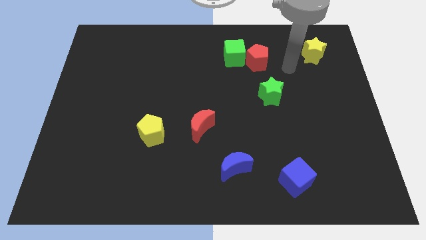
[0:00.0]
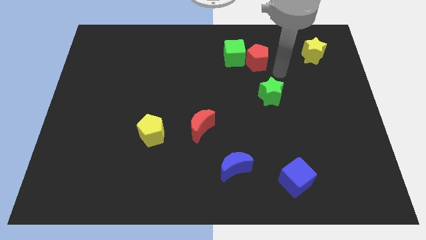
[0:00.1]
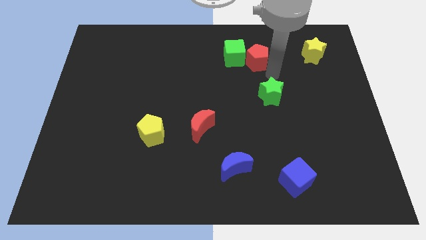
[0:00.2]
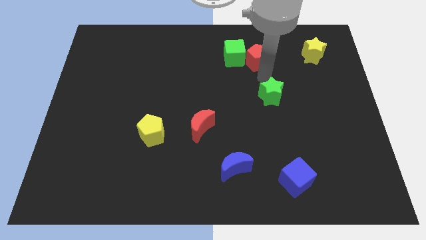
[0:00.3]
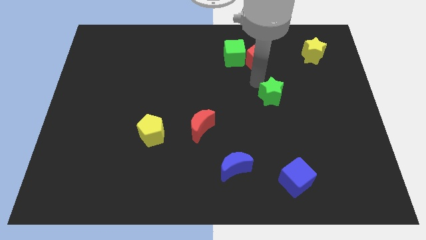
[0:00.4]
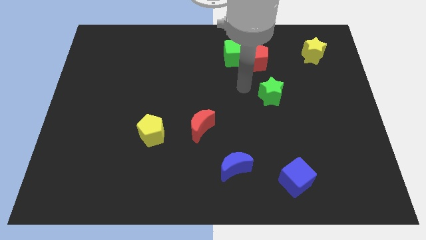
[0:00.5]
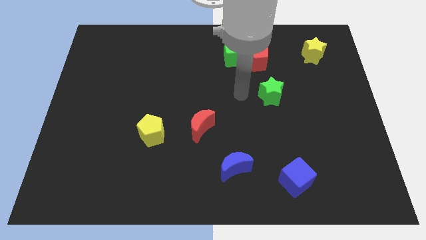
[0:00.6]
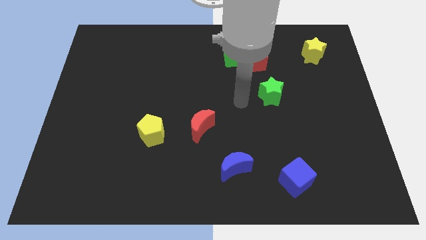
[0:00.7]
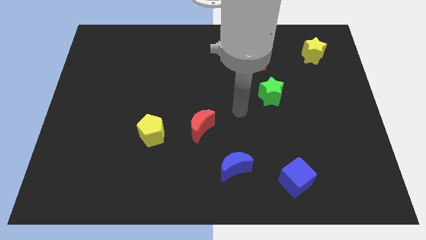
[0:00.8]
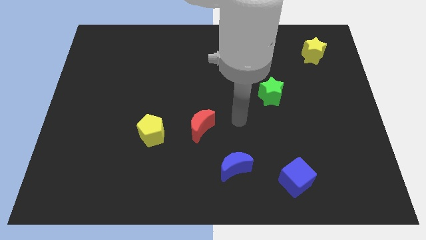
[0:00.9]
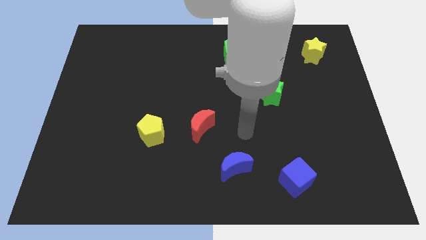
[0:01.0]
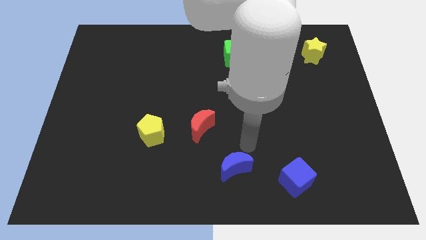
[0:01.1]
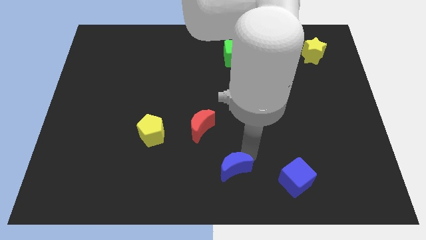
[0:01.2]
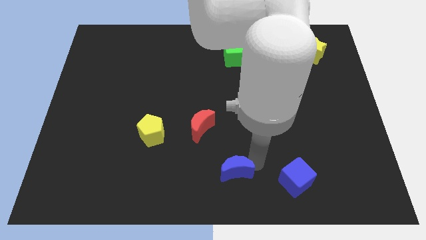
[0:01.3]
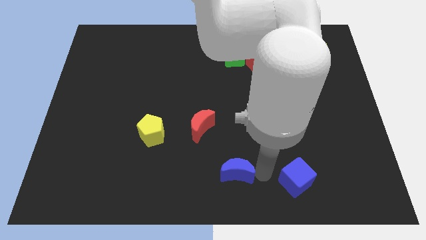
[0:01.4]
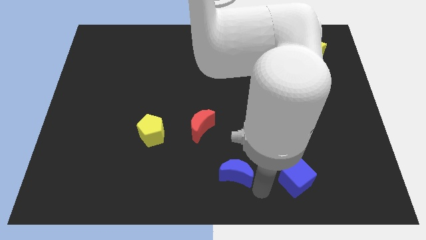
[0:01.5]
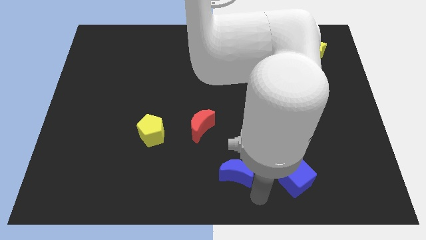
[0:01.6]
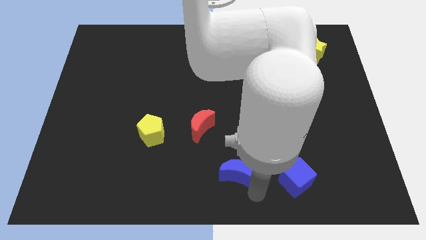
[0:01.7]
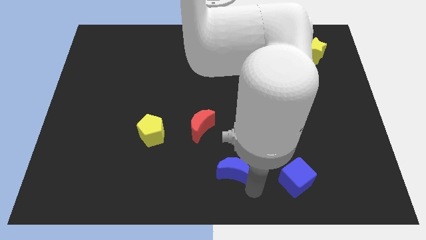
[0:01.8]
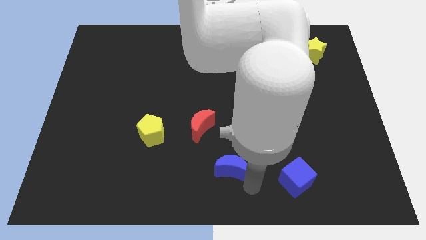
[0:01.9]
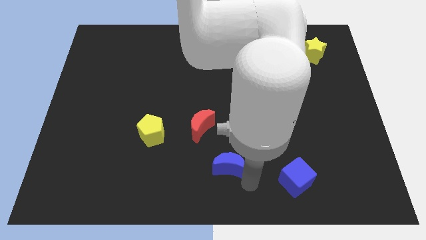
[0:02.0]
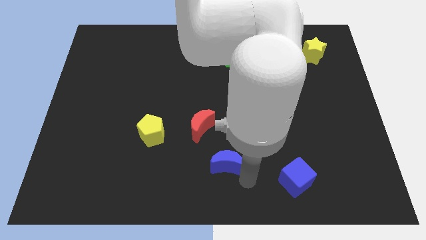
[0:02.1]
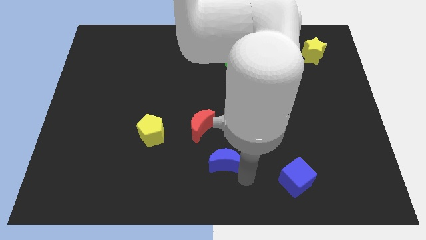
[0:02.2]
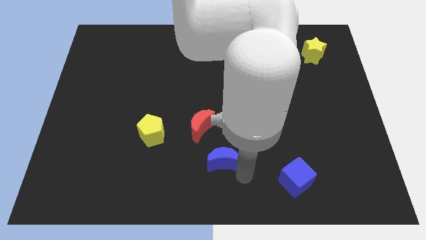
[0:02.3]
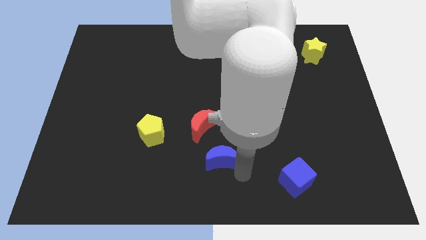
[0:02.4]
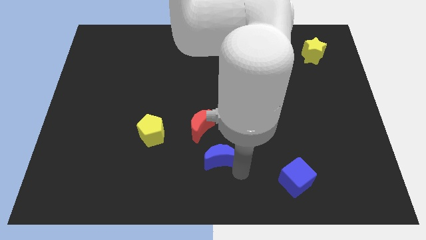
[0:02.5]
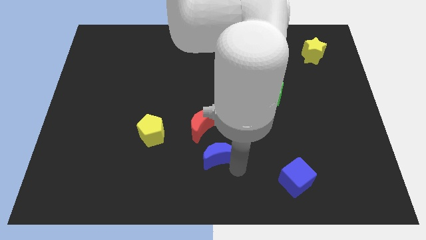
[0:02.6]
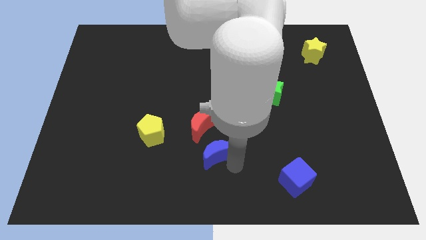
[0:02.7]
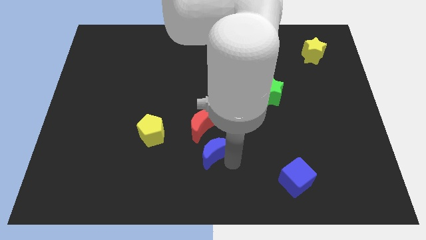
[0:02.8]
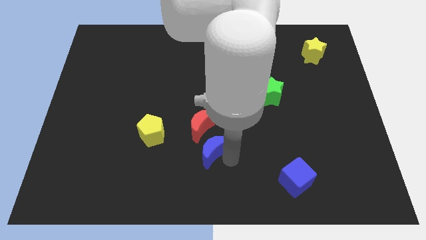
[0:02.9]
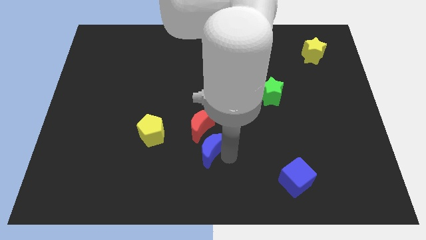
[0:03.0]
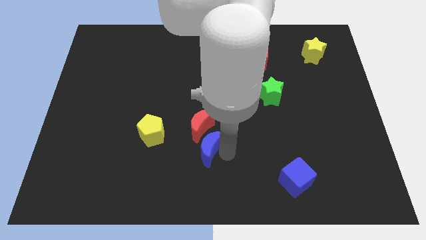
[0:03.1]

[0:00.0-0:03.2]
push the blue moon upwards and left diagonally slightly

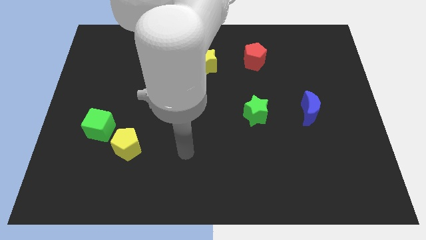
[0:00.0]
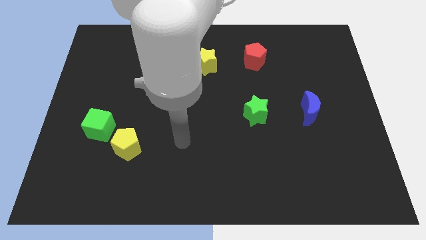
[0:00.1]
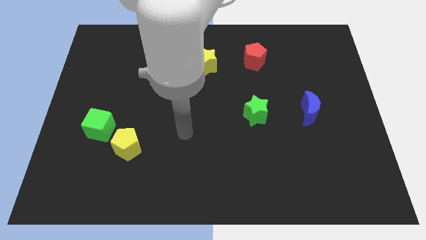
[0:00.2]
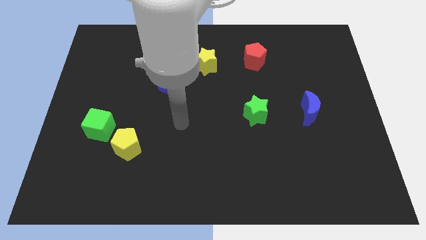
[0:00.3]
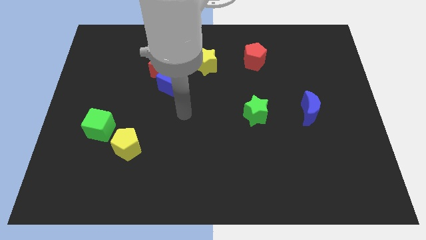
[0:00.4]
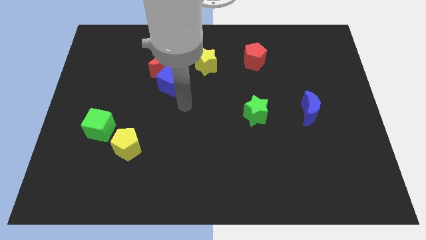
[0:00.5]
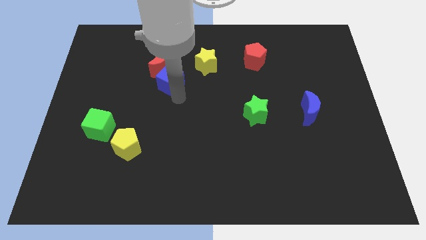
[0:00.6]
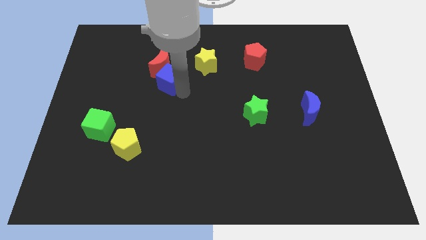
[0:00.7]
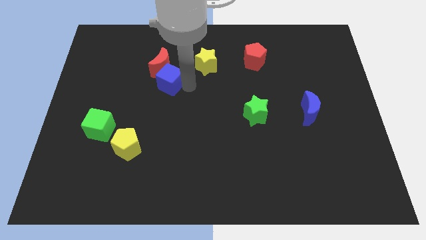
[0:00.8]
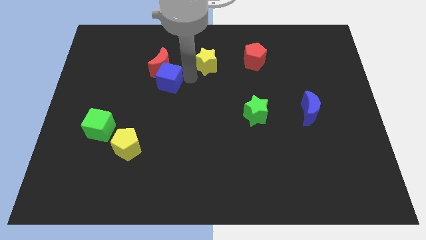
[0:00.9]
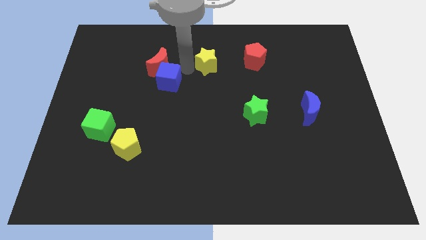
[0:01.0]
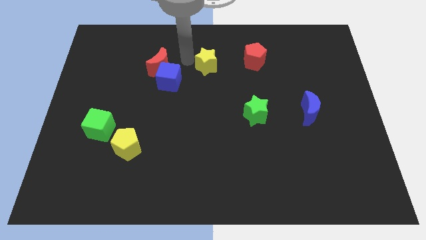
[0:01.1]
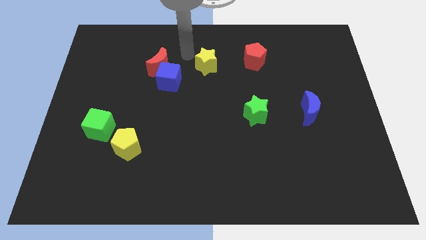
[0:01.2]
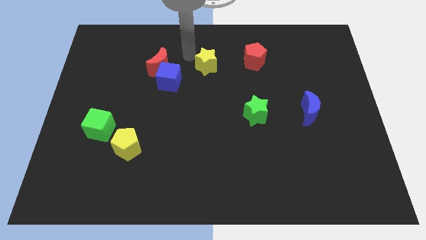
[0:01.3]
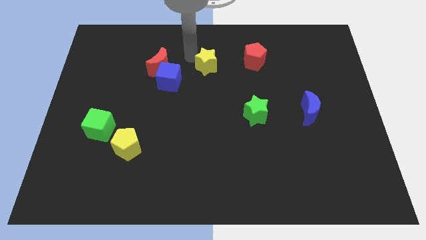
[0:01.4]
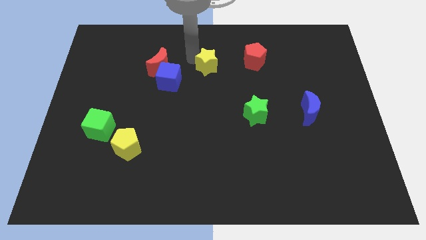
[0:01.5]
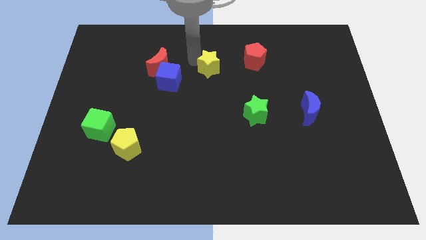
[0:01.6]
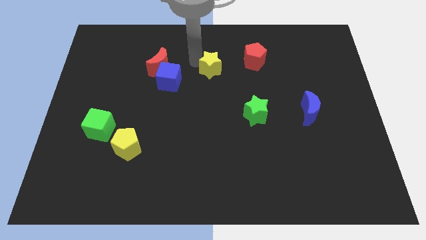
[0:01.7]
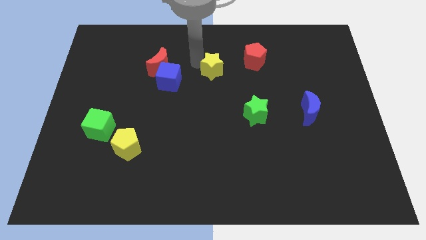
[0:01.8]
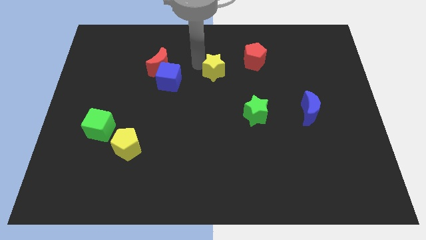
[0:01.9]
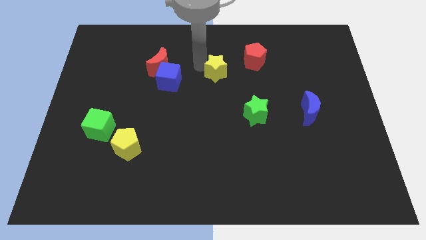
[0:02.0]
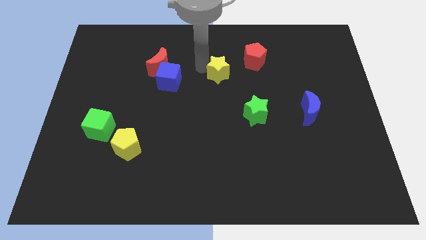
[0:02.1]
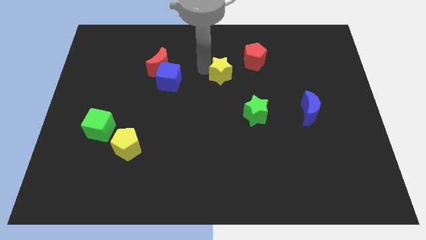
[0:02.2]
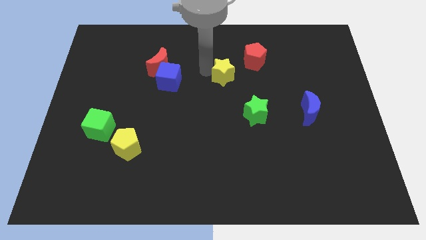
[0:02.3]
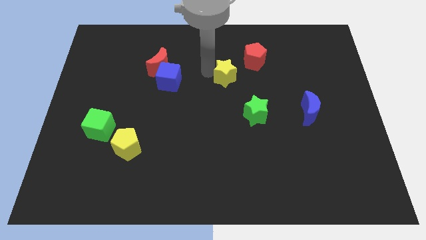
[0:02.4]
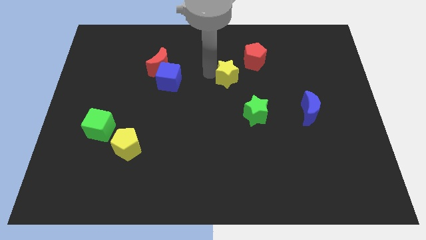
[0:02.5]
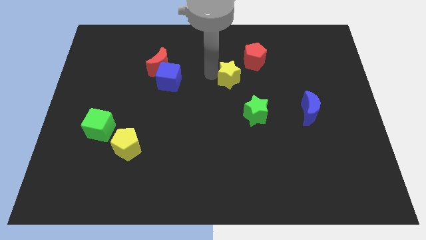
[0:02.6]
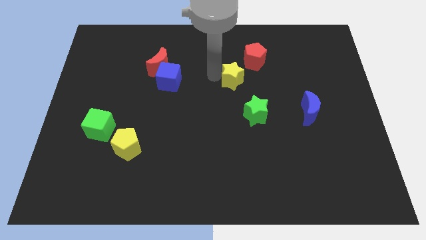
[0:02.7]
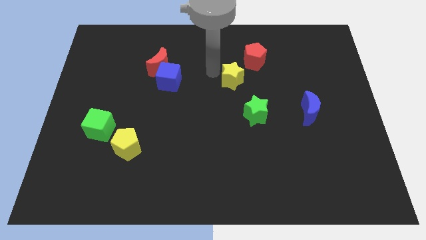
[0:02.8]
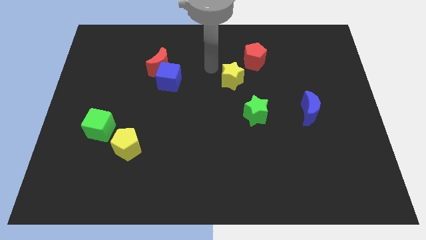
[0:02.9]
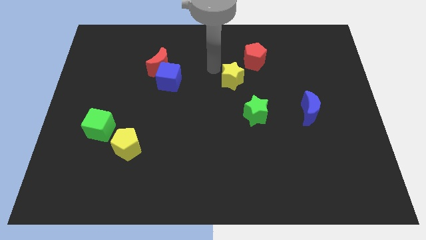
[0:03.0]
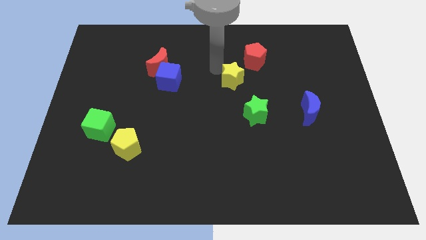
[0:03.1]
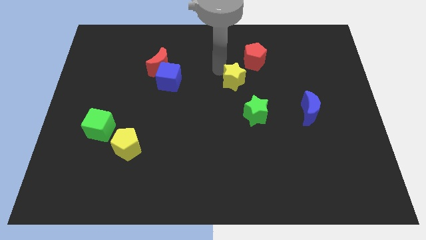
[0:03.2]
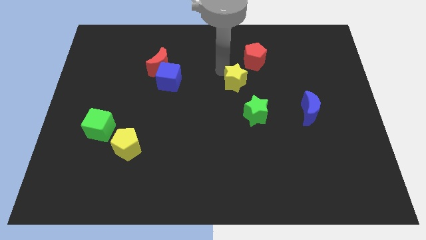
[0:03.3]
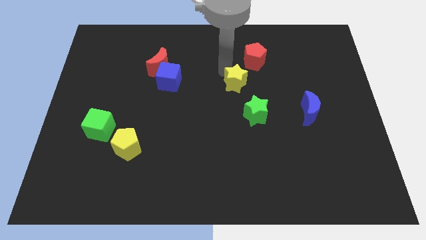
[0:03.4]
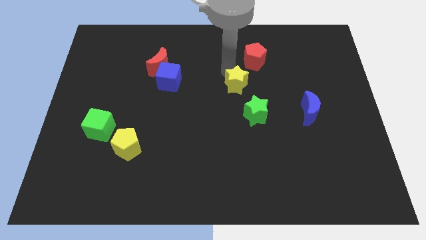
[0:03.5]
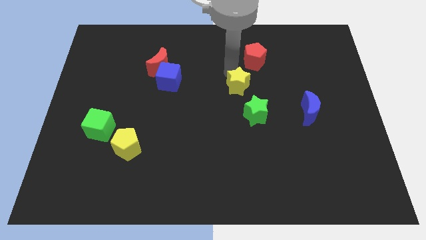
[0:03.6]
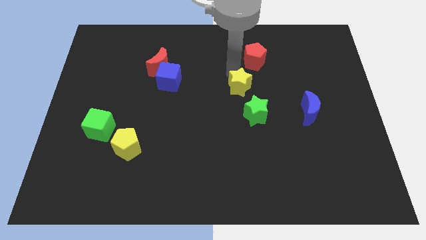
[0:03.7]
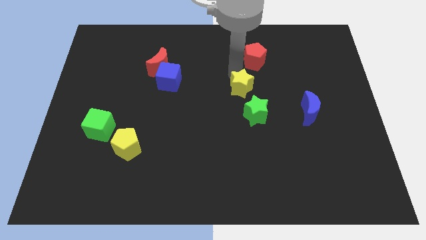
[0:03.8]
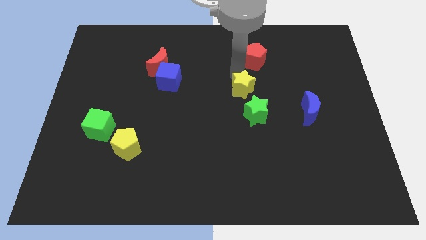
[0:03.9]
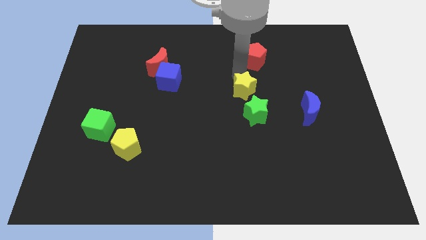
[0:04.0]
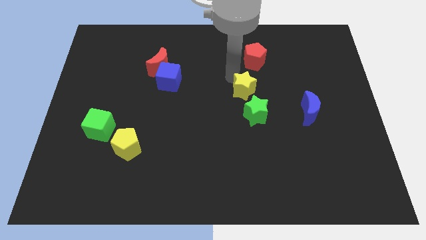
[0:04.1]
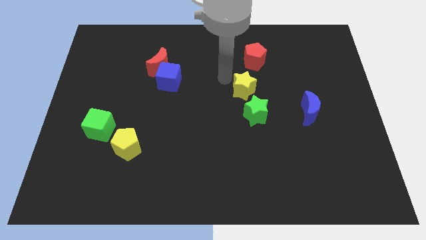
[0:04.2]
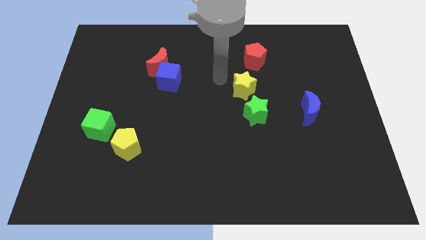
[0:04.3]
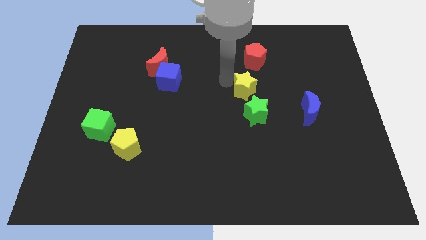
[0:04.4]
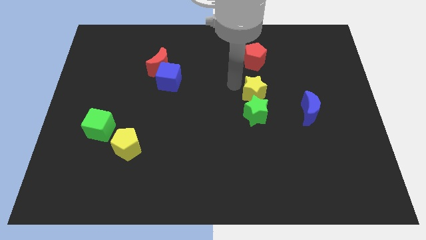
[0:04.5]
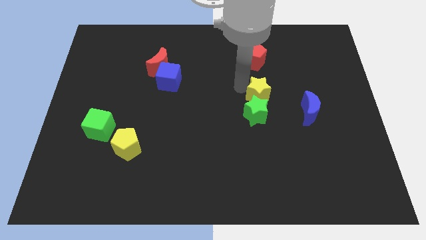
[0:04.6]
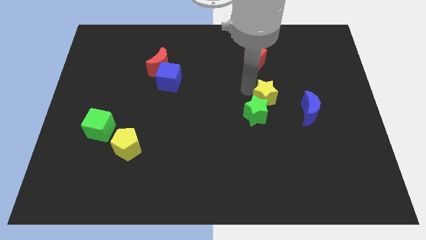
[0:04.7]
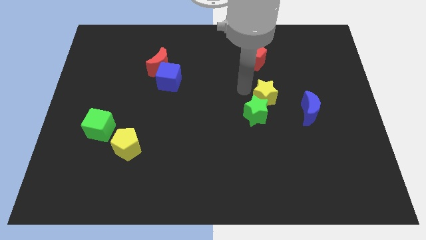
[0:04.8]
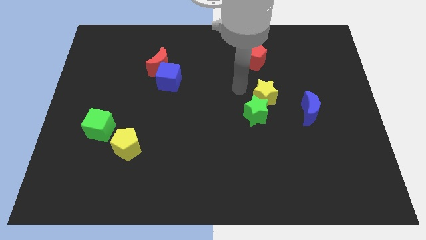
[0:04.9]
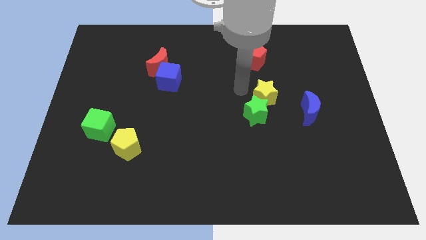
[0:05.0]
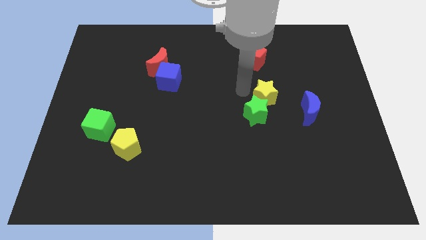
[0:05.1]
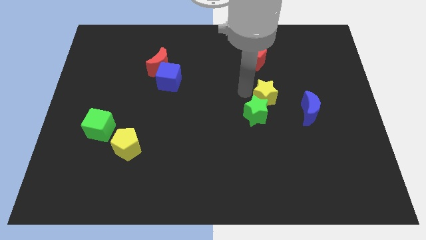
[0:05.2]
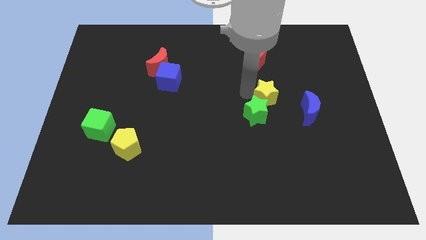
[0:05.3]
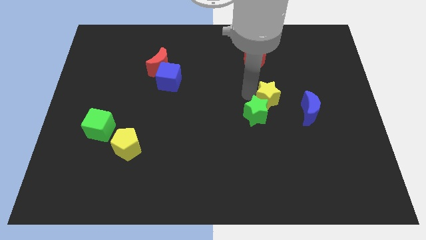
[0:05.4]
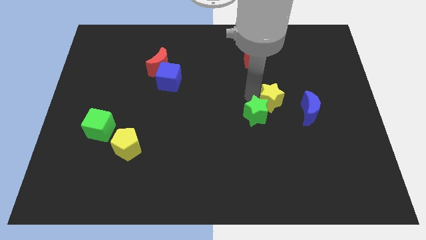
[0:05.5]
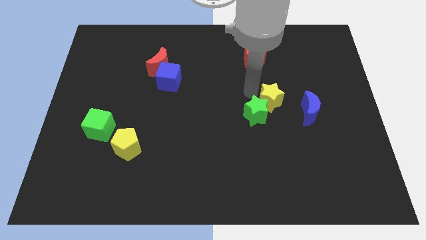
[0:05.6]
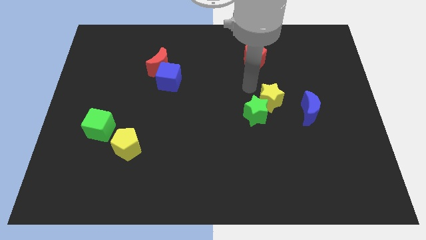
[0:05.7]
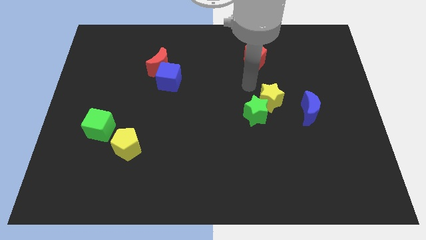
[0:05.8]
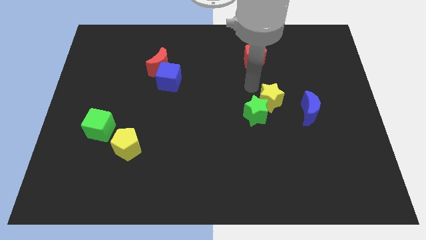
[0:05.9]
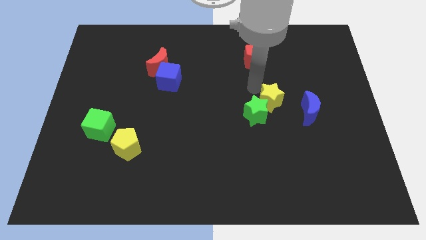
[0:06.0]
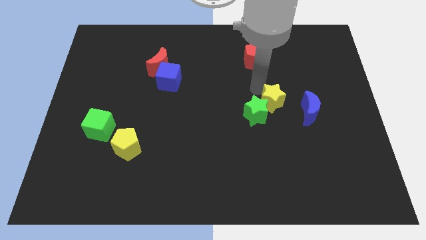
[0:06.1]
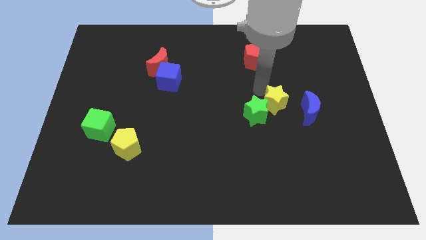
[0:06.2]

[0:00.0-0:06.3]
move the yellow star downwards and to the right diagonally
